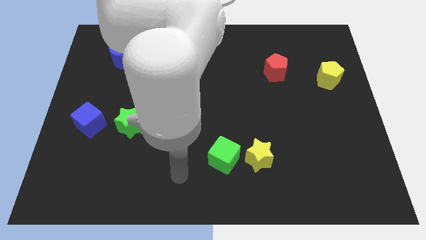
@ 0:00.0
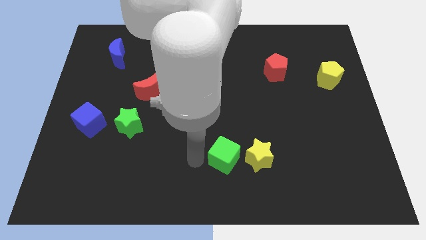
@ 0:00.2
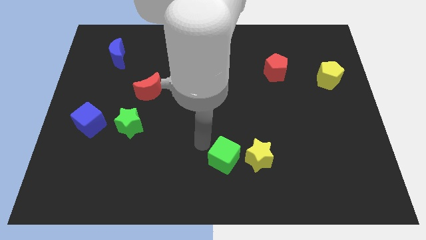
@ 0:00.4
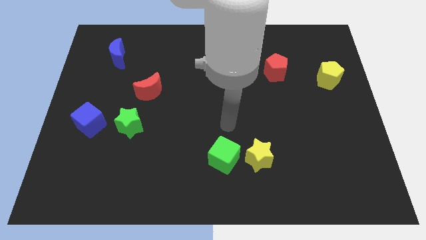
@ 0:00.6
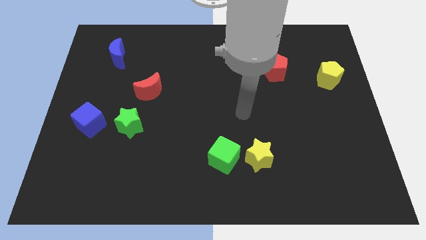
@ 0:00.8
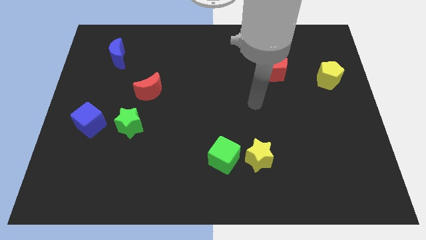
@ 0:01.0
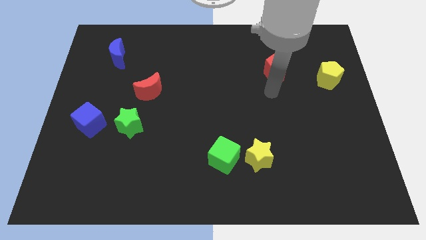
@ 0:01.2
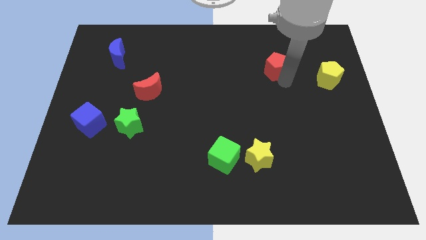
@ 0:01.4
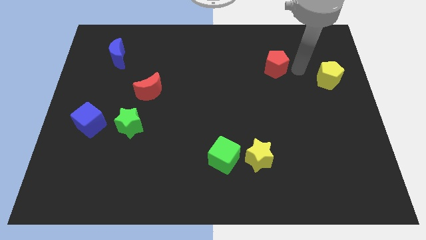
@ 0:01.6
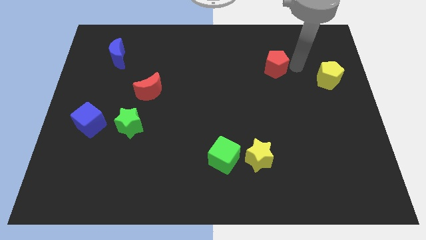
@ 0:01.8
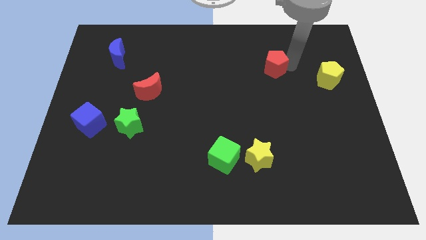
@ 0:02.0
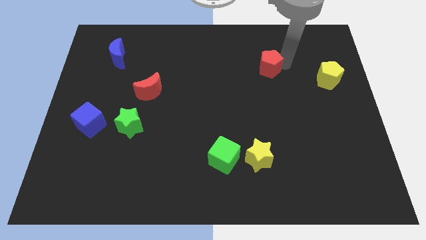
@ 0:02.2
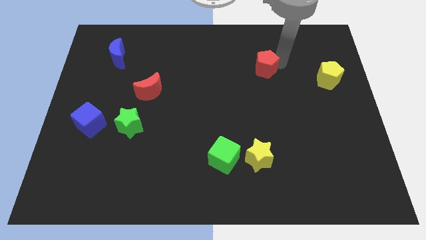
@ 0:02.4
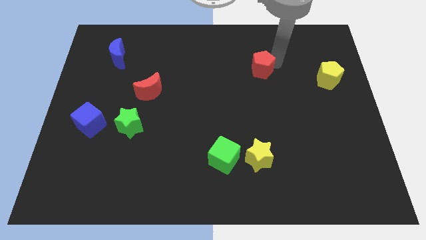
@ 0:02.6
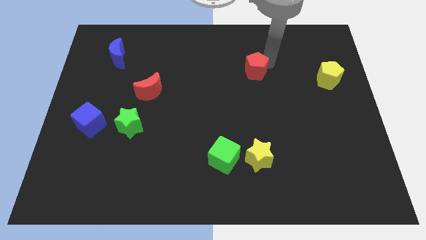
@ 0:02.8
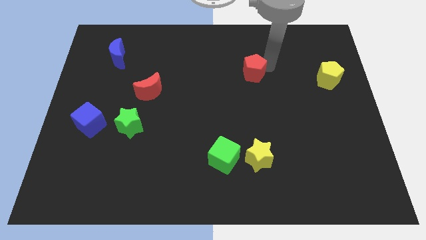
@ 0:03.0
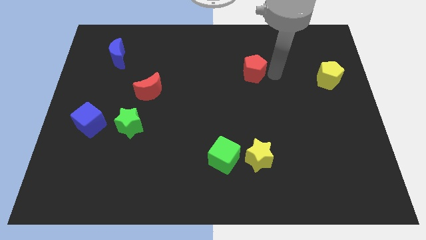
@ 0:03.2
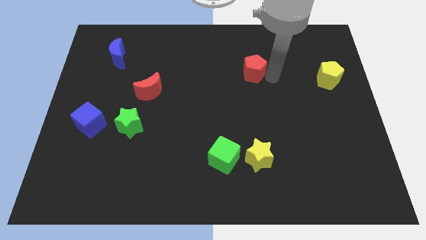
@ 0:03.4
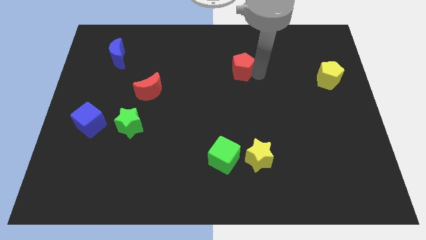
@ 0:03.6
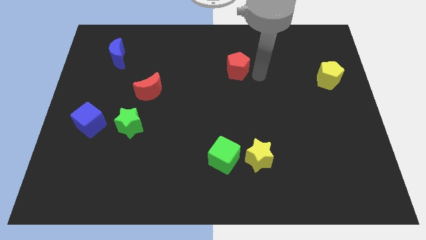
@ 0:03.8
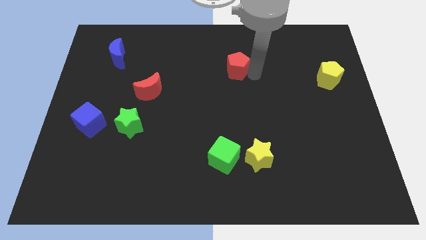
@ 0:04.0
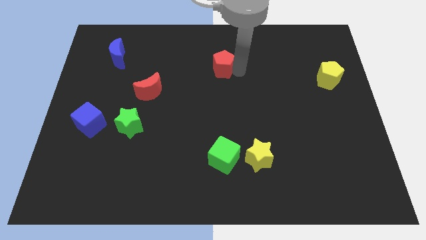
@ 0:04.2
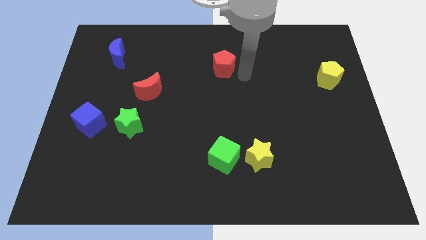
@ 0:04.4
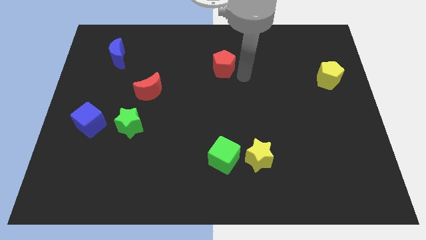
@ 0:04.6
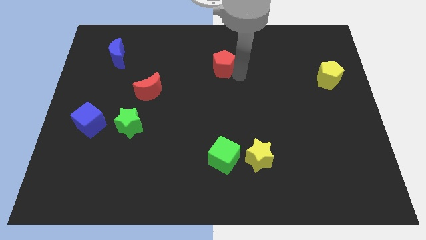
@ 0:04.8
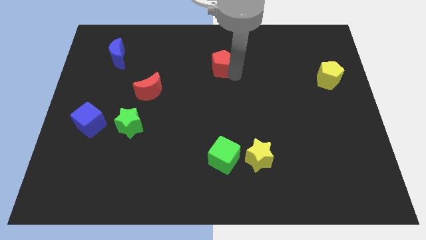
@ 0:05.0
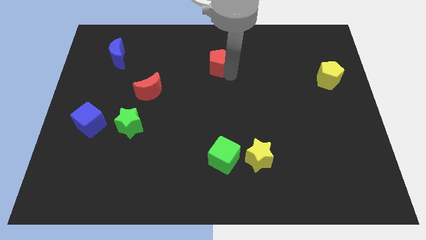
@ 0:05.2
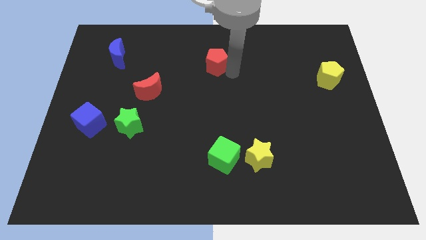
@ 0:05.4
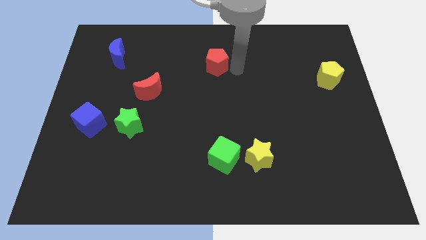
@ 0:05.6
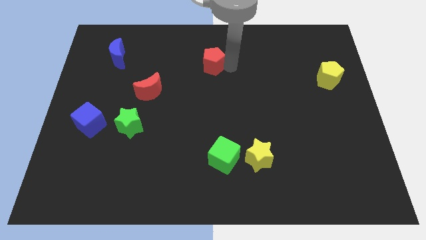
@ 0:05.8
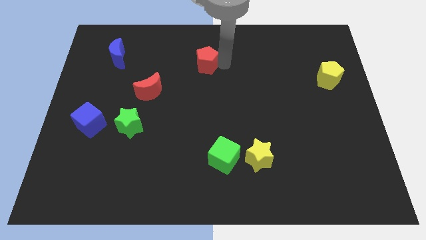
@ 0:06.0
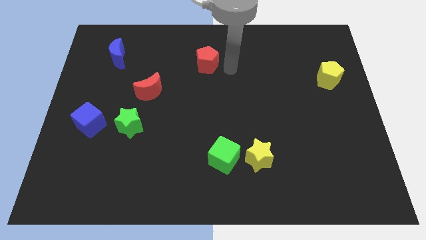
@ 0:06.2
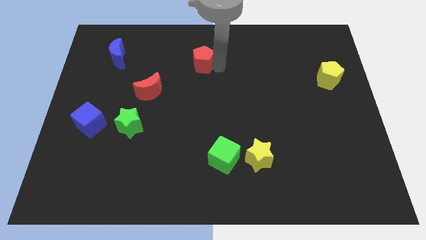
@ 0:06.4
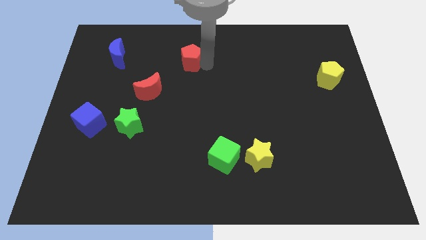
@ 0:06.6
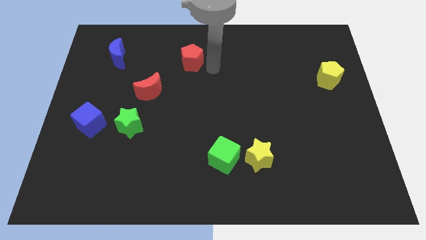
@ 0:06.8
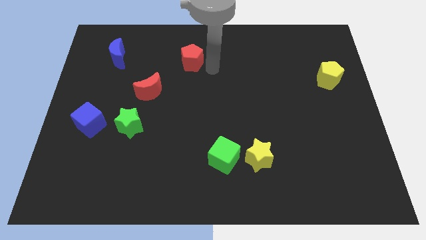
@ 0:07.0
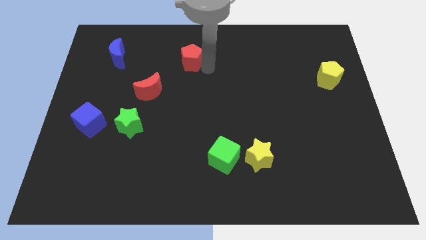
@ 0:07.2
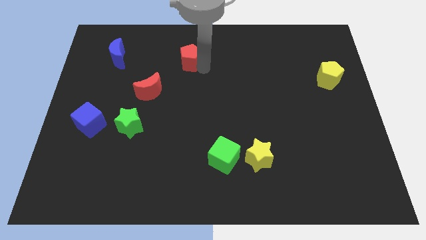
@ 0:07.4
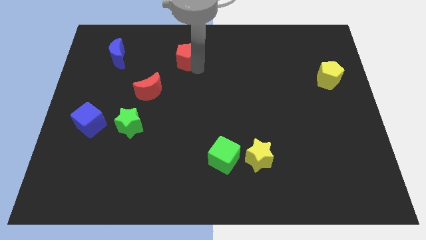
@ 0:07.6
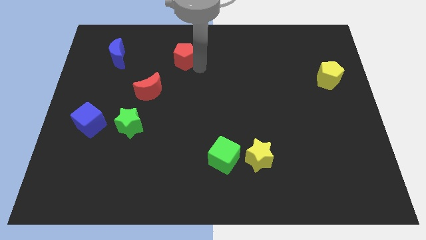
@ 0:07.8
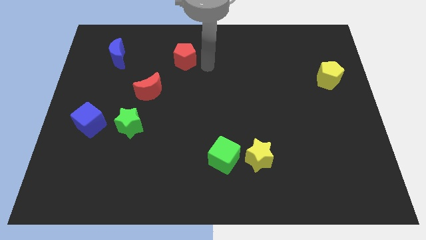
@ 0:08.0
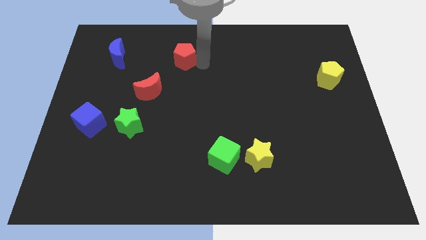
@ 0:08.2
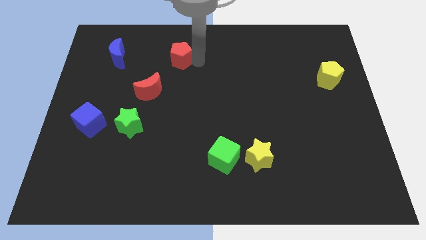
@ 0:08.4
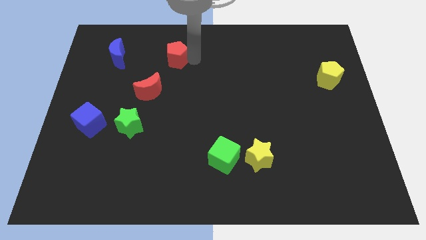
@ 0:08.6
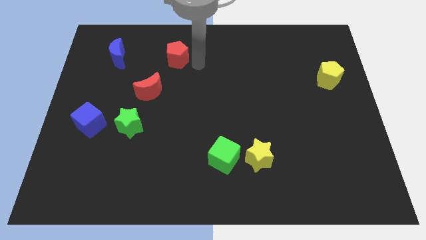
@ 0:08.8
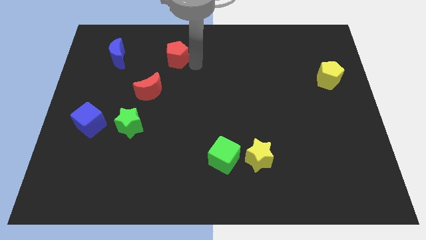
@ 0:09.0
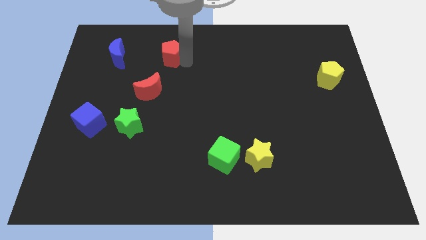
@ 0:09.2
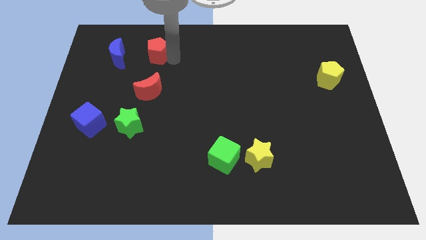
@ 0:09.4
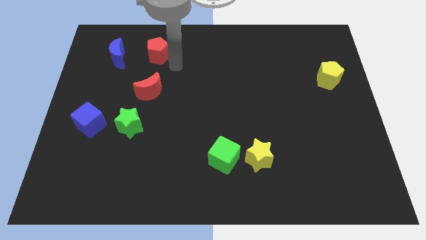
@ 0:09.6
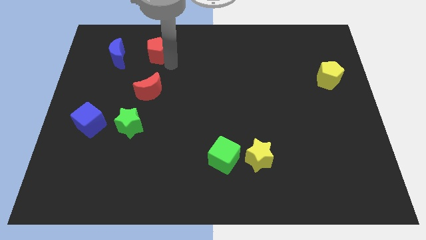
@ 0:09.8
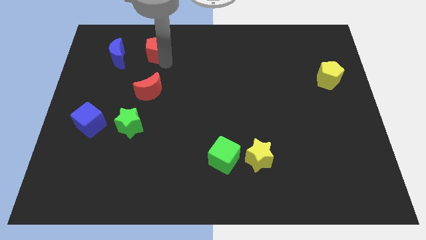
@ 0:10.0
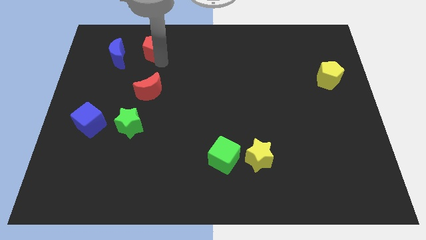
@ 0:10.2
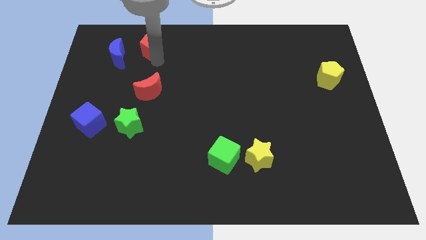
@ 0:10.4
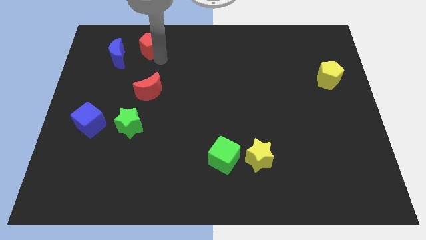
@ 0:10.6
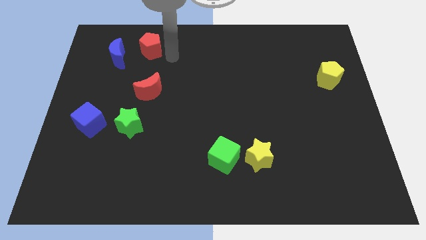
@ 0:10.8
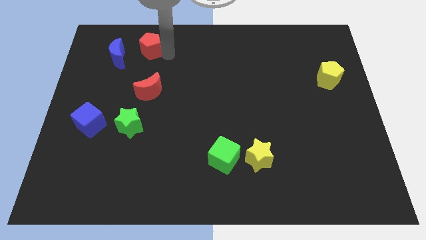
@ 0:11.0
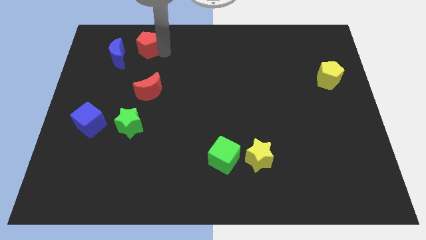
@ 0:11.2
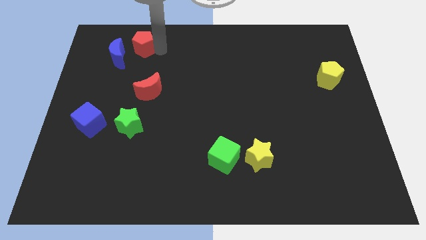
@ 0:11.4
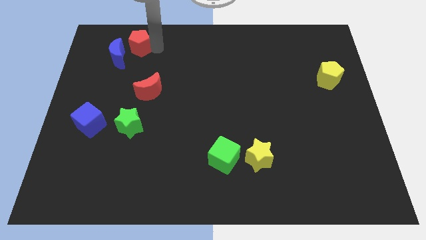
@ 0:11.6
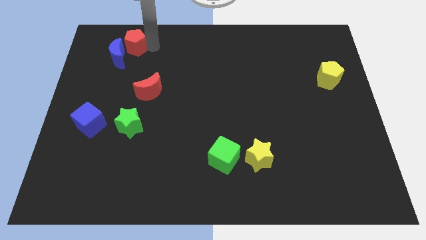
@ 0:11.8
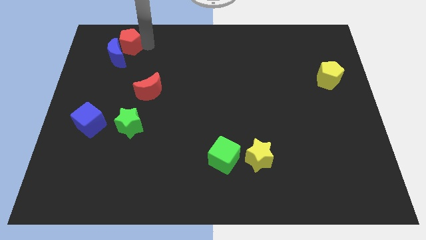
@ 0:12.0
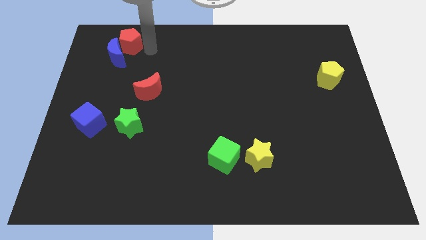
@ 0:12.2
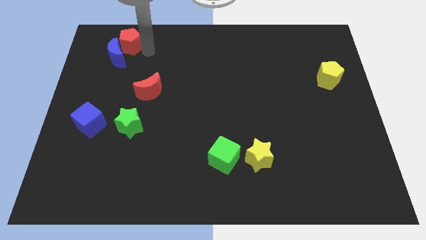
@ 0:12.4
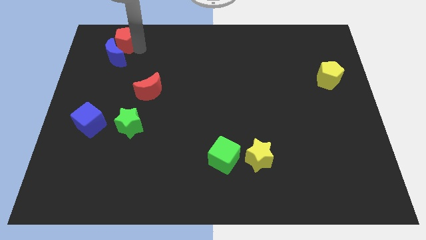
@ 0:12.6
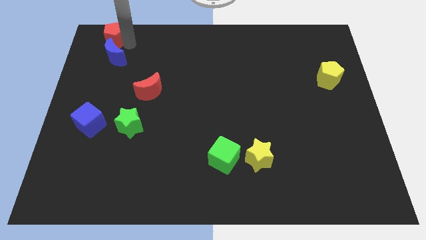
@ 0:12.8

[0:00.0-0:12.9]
push the red pentagon to the top left corner
